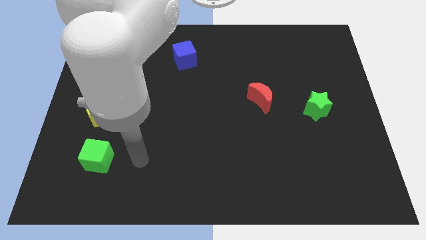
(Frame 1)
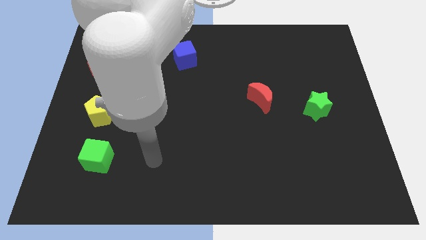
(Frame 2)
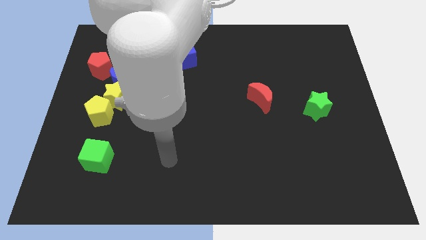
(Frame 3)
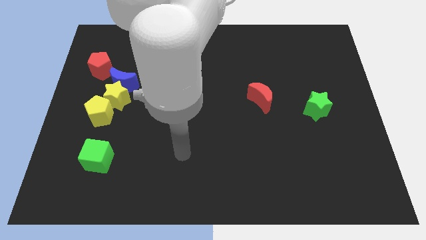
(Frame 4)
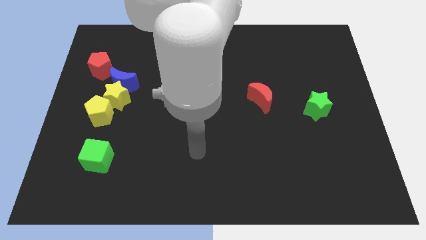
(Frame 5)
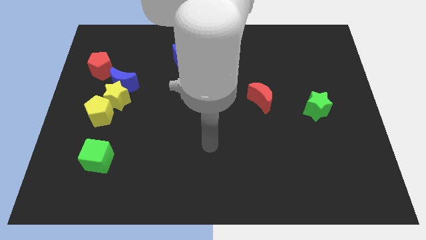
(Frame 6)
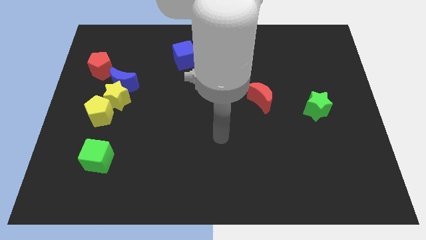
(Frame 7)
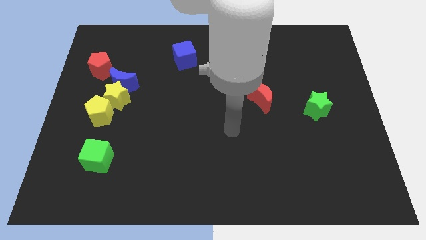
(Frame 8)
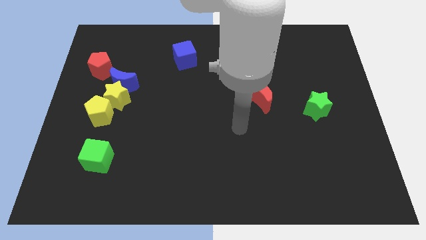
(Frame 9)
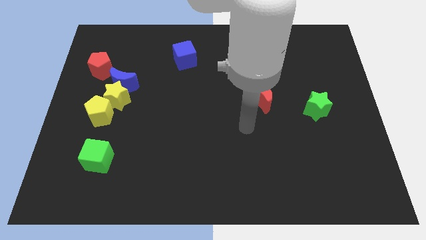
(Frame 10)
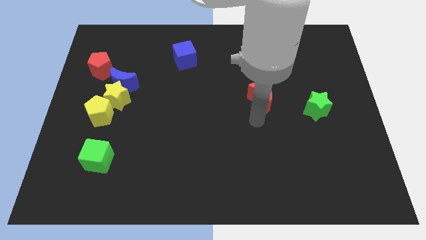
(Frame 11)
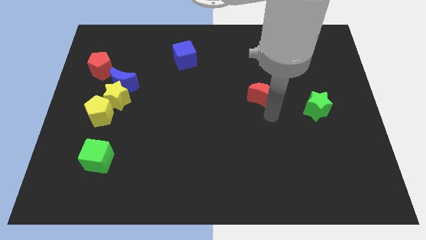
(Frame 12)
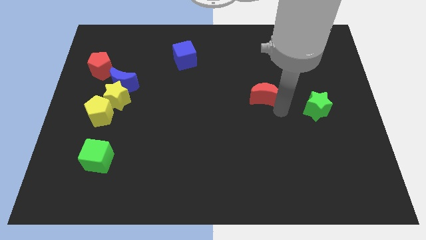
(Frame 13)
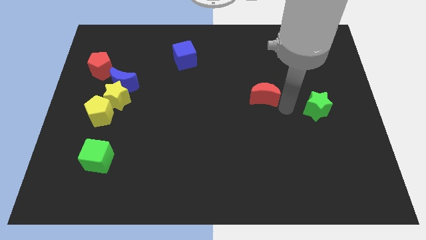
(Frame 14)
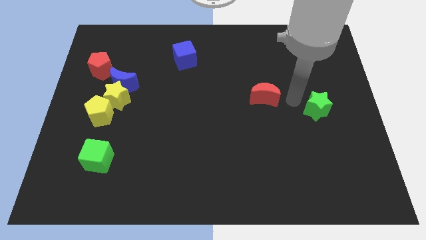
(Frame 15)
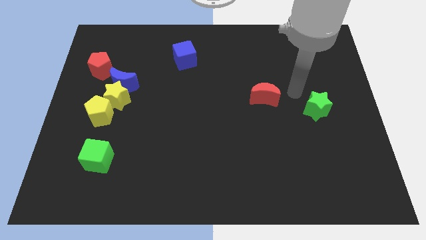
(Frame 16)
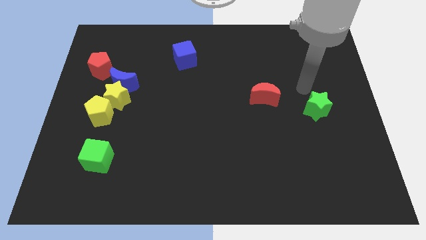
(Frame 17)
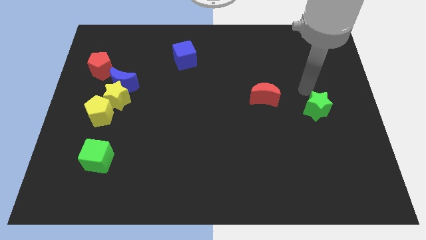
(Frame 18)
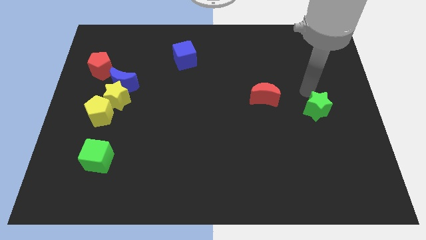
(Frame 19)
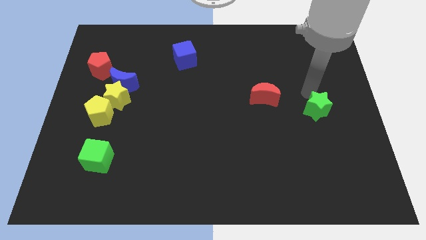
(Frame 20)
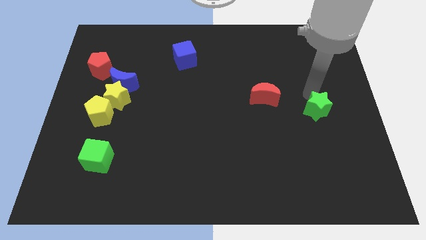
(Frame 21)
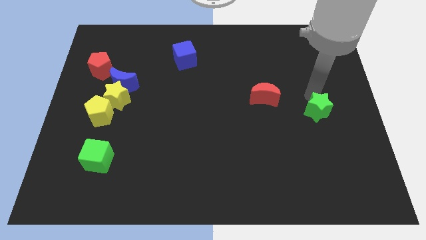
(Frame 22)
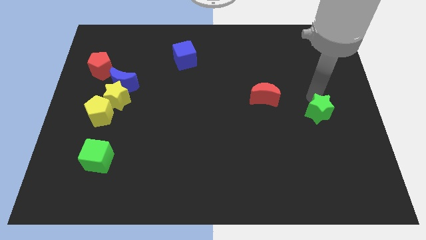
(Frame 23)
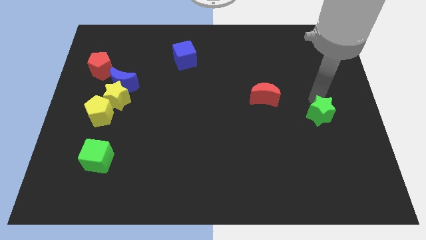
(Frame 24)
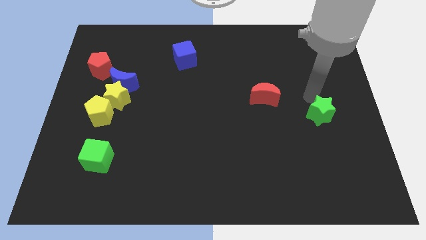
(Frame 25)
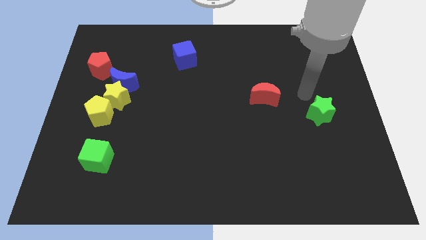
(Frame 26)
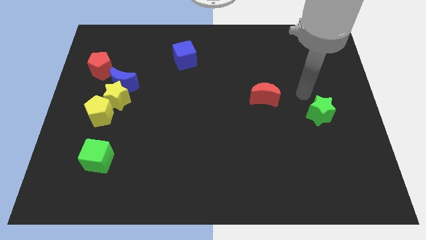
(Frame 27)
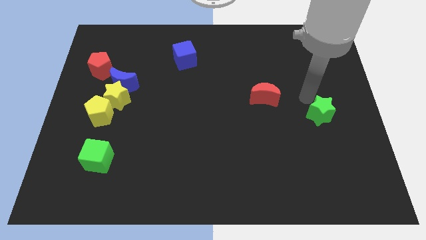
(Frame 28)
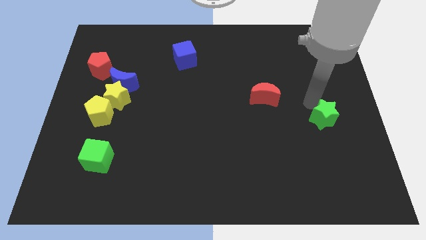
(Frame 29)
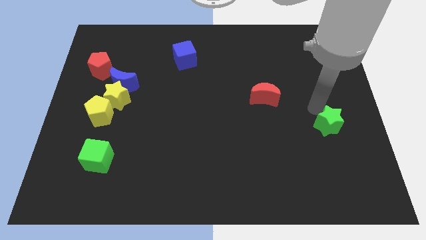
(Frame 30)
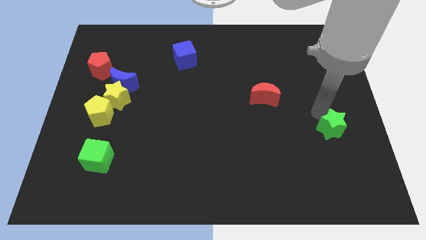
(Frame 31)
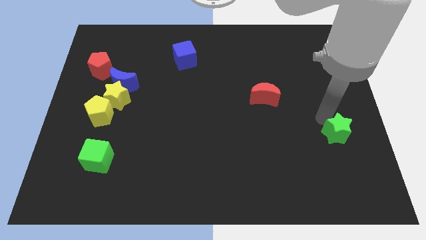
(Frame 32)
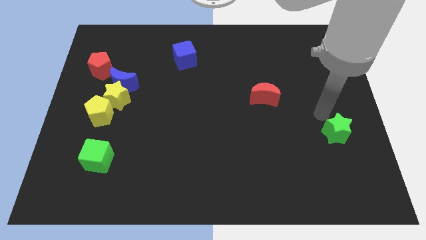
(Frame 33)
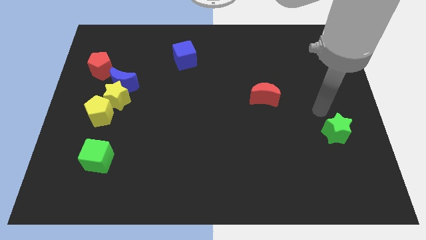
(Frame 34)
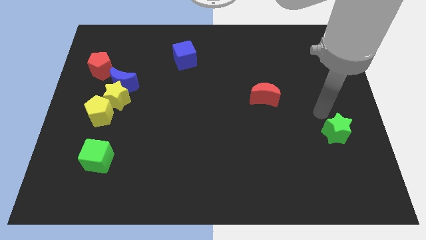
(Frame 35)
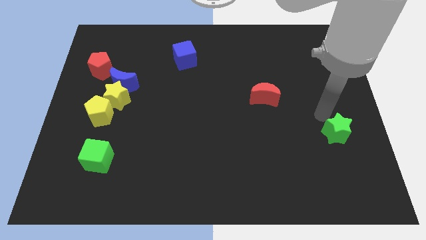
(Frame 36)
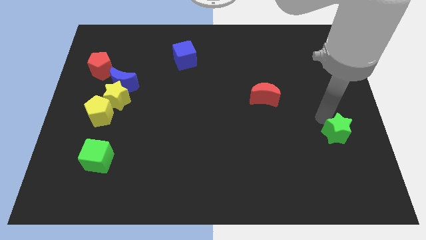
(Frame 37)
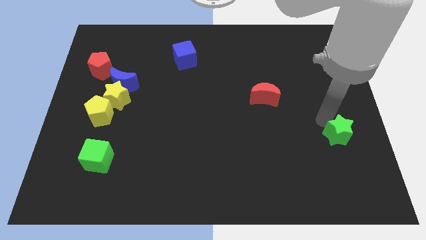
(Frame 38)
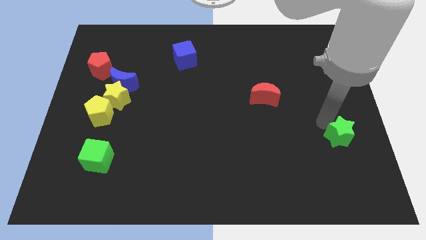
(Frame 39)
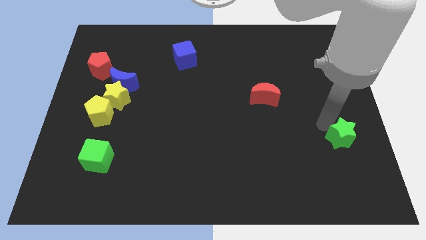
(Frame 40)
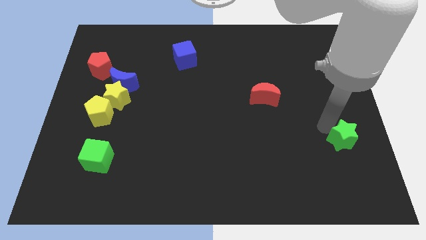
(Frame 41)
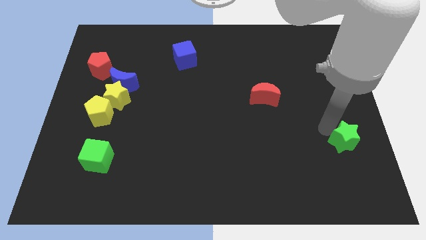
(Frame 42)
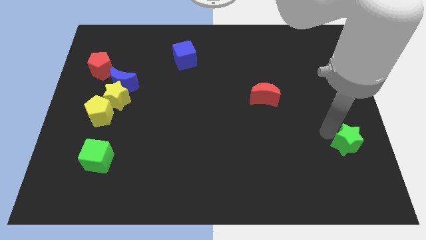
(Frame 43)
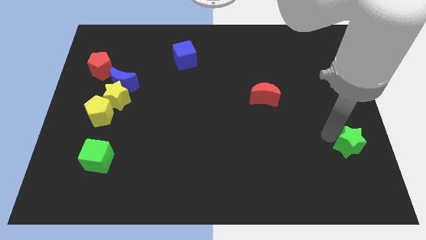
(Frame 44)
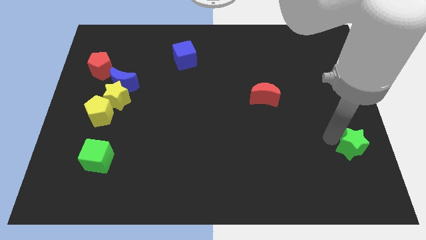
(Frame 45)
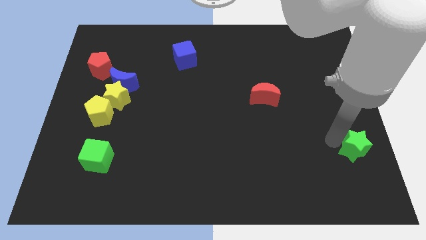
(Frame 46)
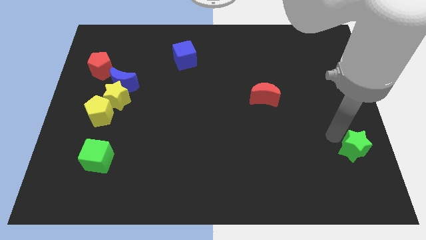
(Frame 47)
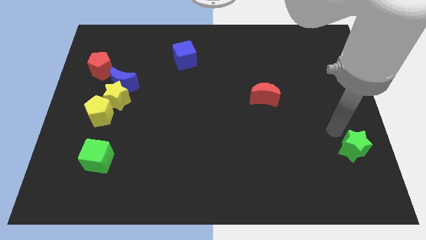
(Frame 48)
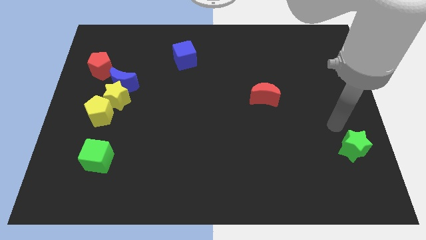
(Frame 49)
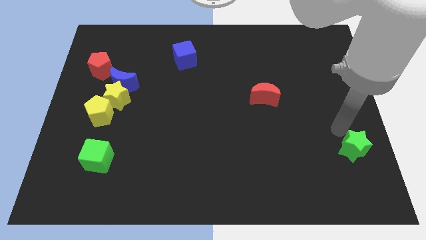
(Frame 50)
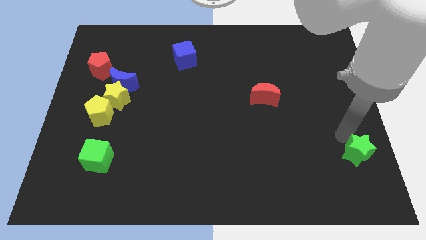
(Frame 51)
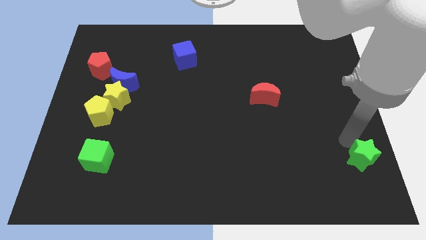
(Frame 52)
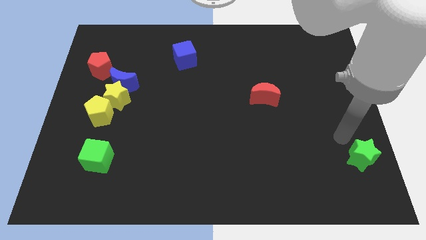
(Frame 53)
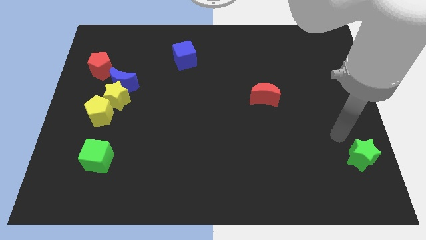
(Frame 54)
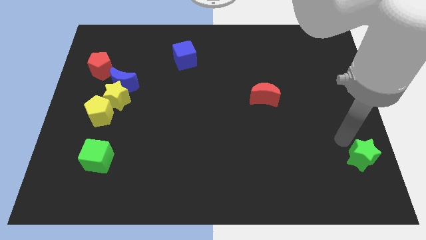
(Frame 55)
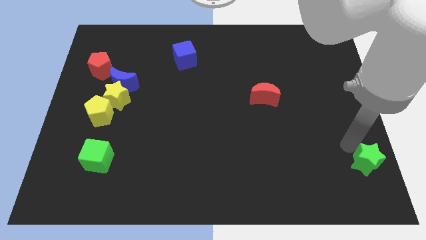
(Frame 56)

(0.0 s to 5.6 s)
move the green star to the bottom right of the board

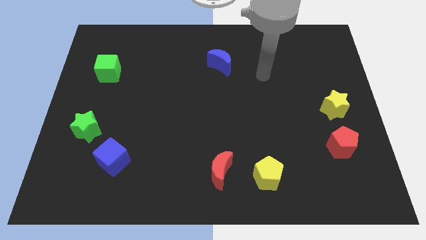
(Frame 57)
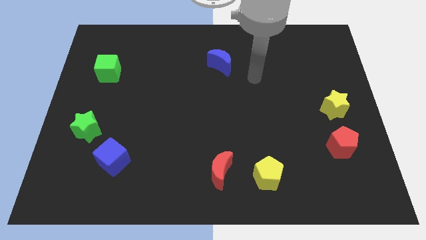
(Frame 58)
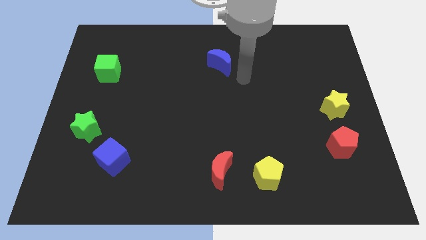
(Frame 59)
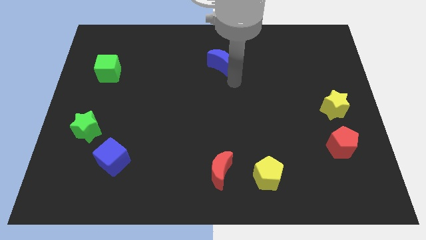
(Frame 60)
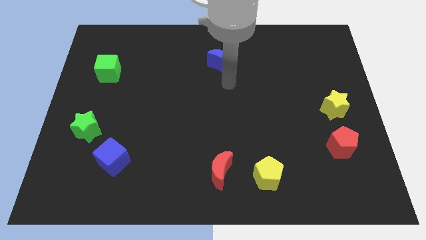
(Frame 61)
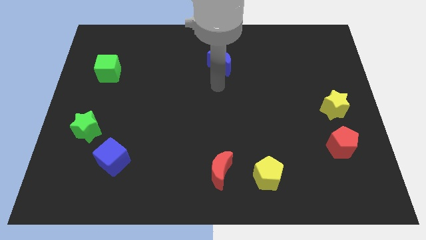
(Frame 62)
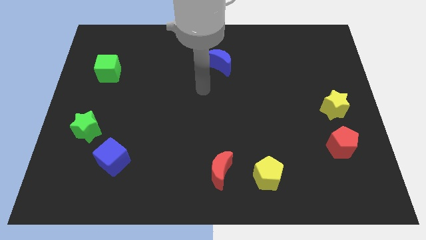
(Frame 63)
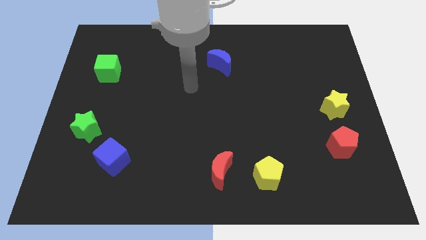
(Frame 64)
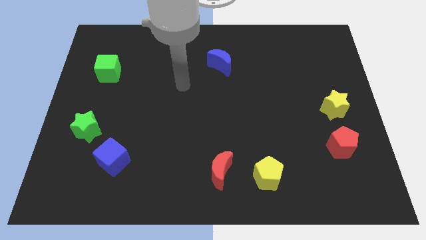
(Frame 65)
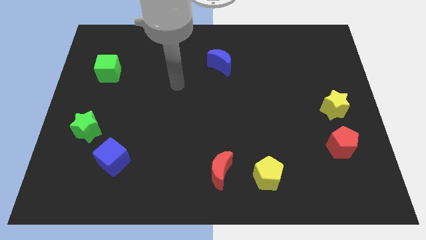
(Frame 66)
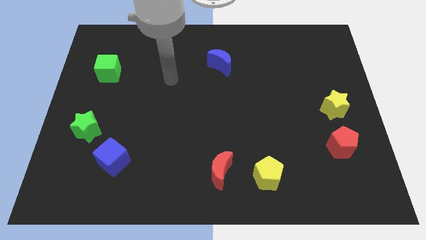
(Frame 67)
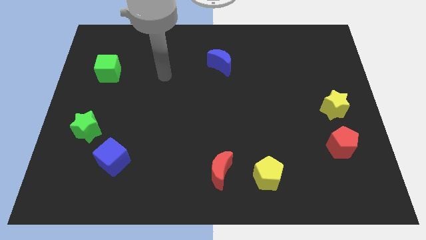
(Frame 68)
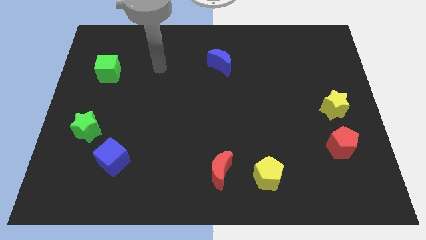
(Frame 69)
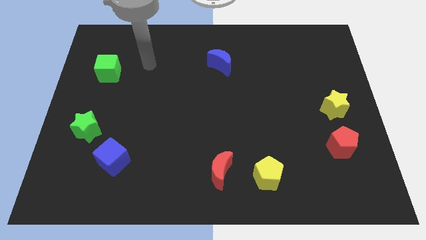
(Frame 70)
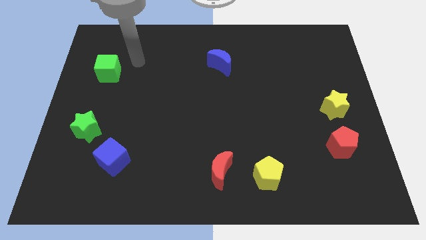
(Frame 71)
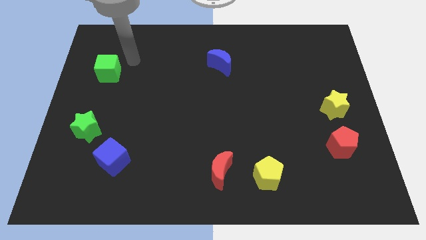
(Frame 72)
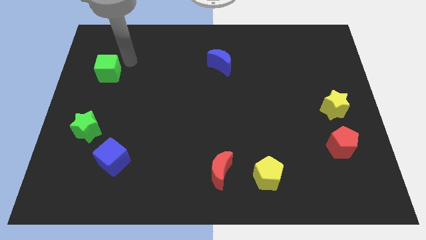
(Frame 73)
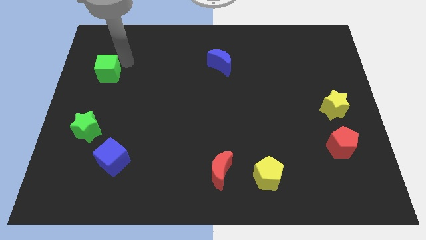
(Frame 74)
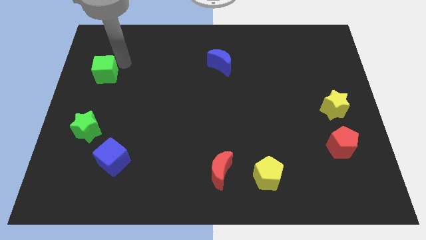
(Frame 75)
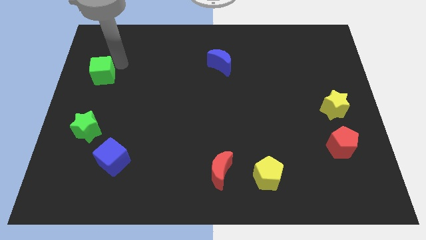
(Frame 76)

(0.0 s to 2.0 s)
push the green cube to the center left
